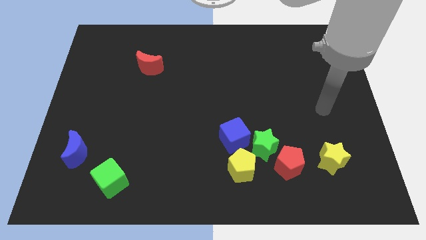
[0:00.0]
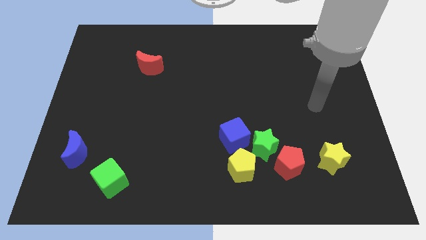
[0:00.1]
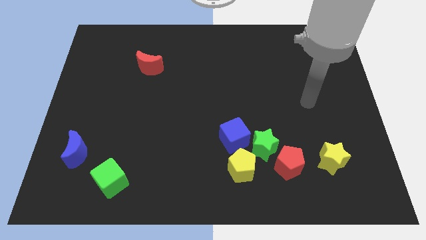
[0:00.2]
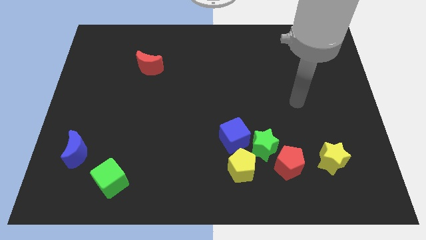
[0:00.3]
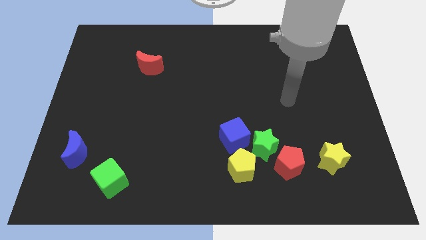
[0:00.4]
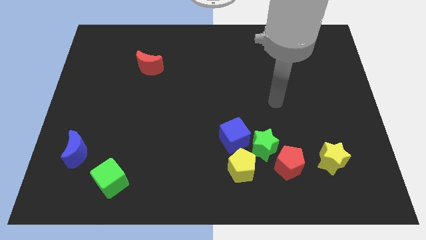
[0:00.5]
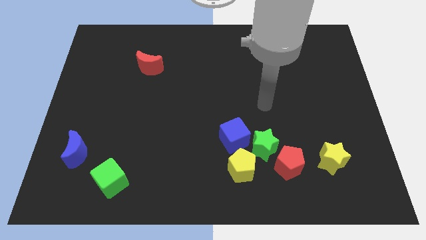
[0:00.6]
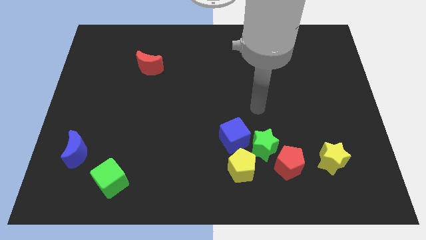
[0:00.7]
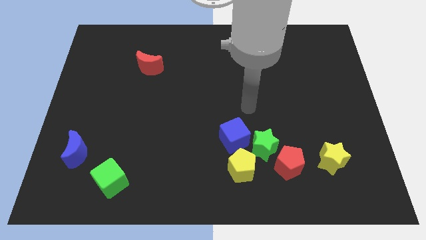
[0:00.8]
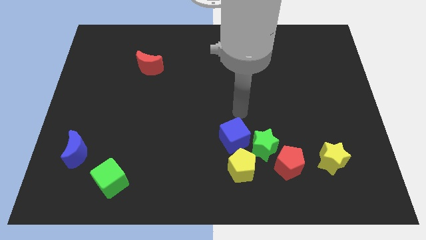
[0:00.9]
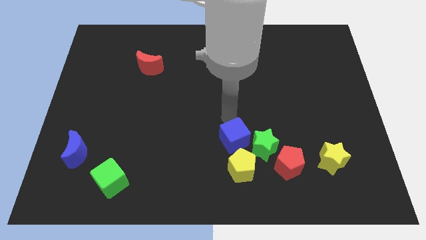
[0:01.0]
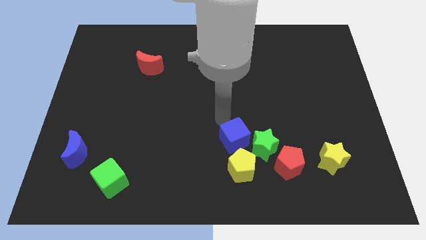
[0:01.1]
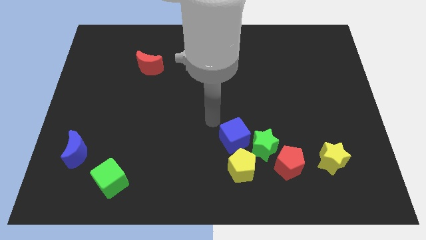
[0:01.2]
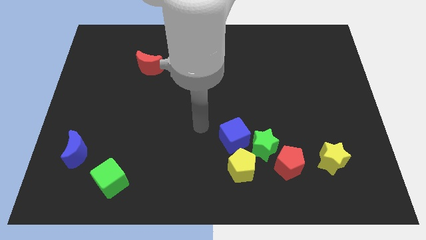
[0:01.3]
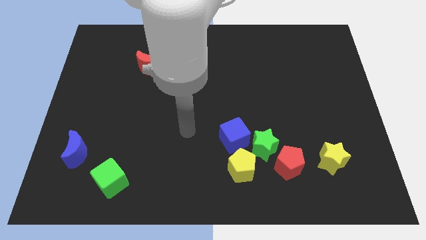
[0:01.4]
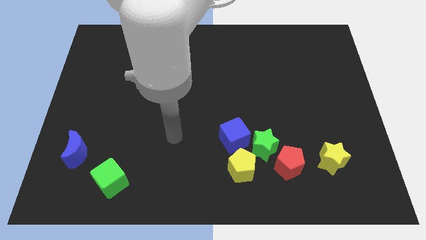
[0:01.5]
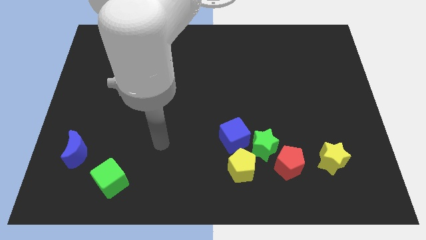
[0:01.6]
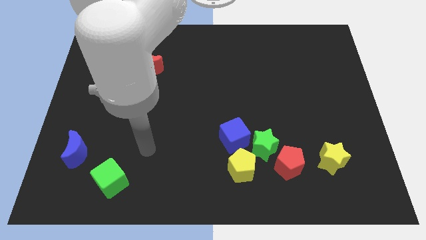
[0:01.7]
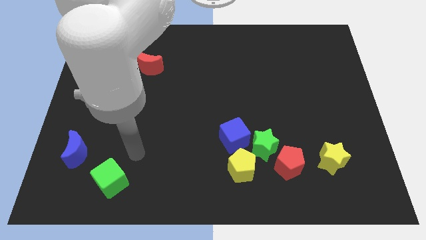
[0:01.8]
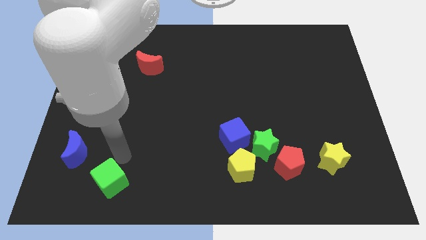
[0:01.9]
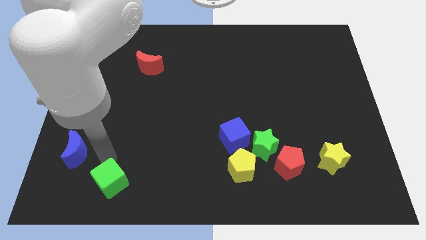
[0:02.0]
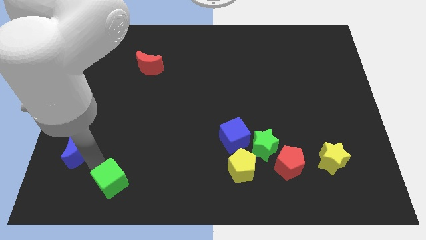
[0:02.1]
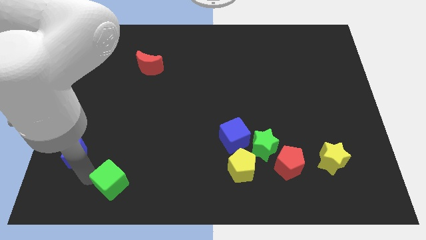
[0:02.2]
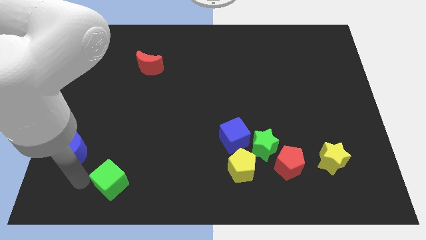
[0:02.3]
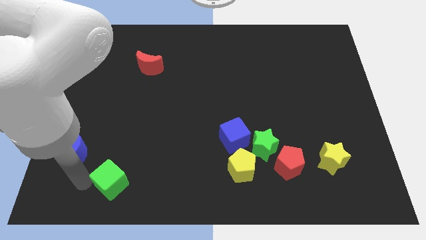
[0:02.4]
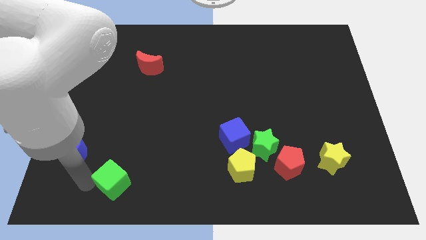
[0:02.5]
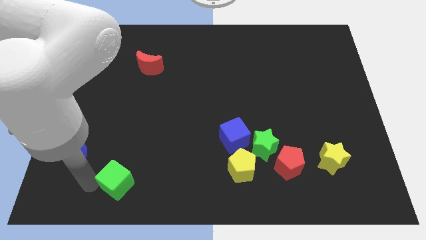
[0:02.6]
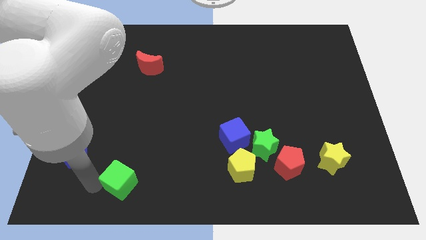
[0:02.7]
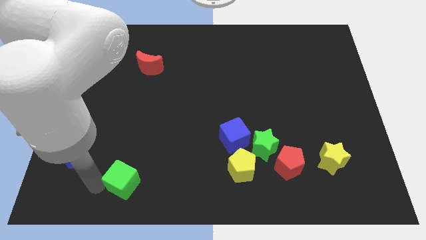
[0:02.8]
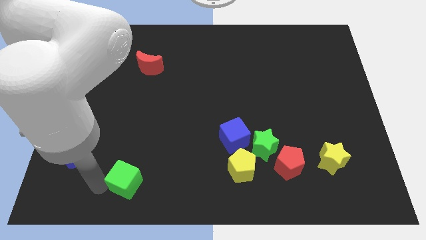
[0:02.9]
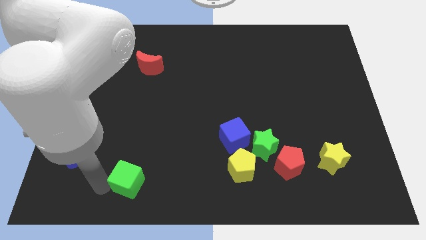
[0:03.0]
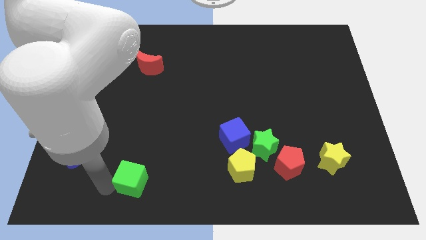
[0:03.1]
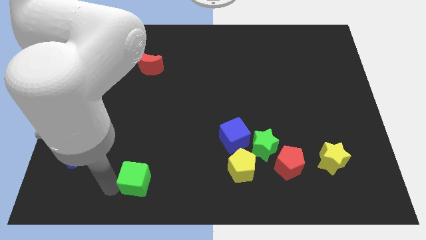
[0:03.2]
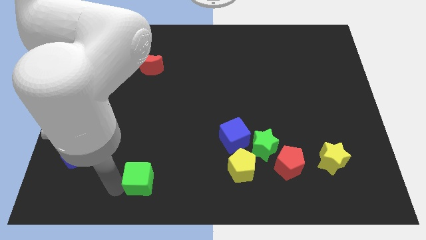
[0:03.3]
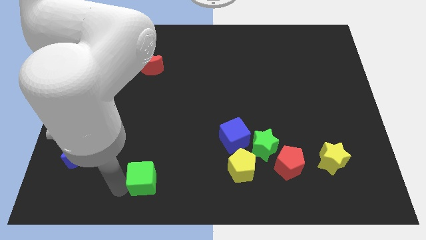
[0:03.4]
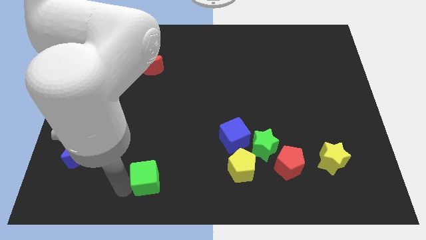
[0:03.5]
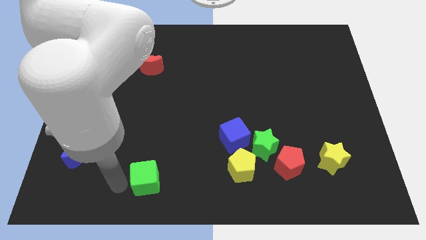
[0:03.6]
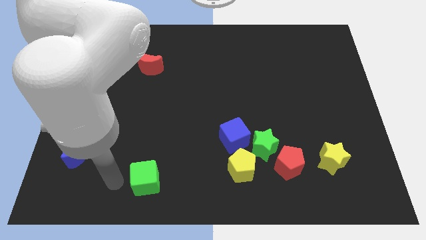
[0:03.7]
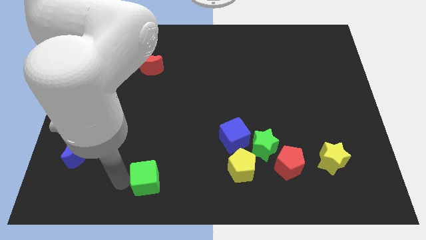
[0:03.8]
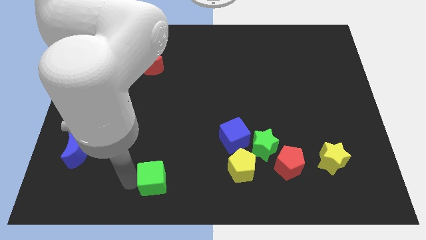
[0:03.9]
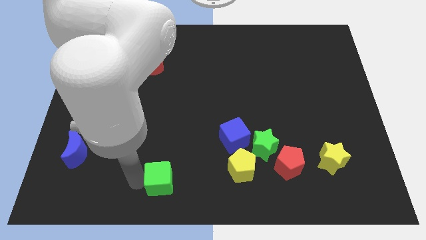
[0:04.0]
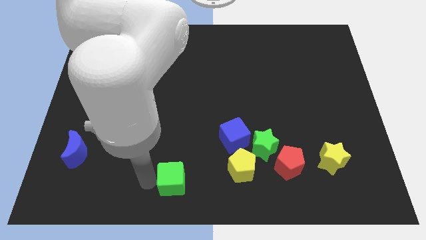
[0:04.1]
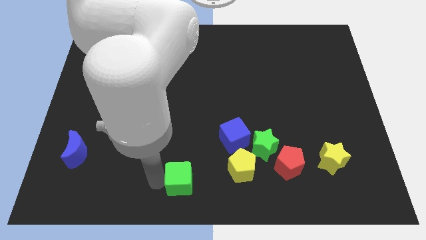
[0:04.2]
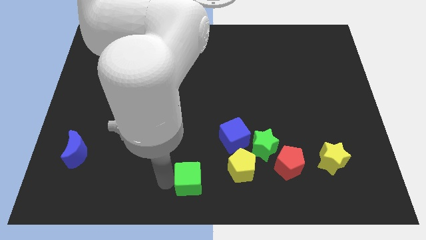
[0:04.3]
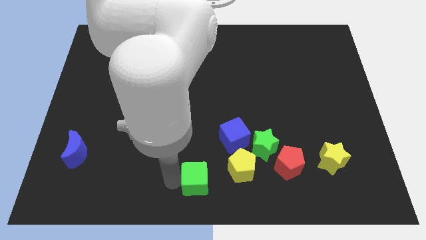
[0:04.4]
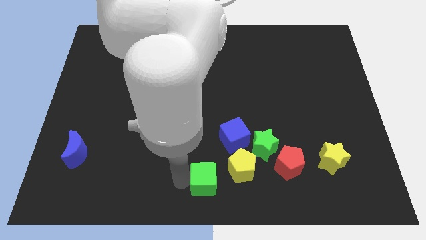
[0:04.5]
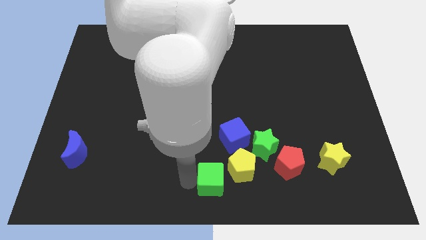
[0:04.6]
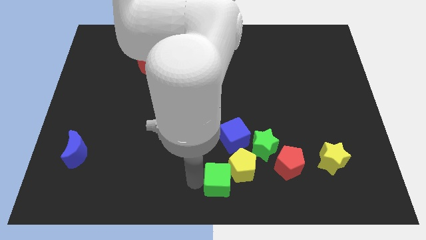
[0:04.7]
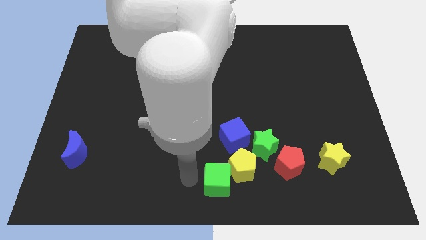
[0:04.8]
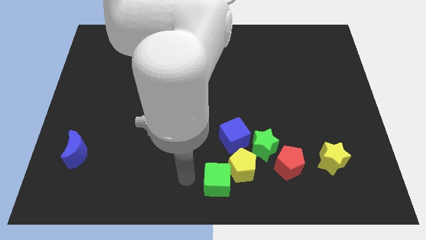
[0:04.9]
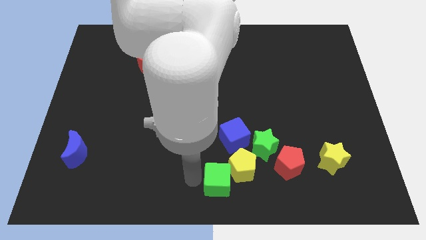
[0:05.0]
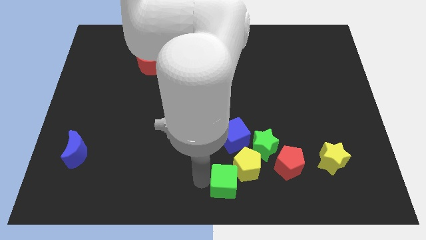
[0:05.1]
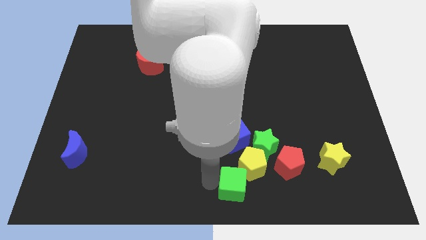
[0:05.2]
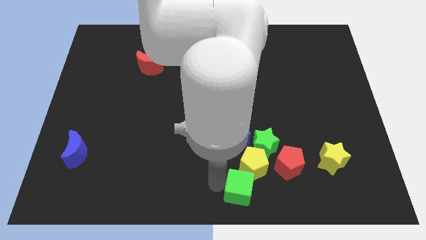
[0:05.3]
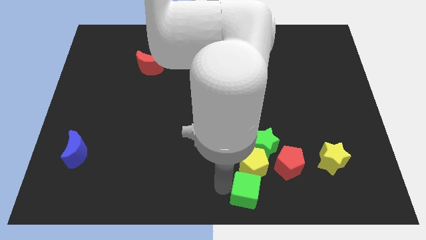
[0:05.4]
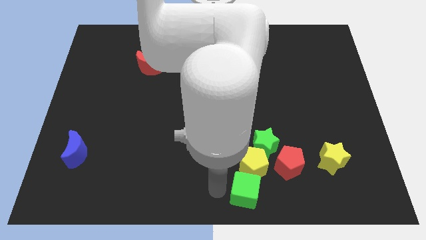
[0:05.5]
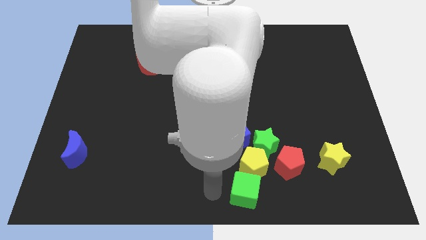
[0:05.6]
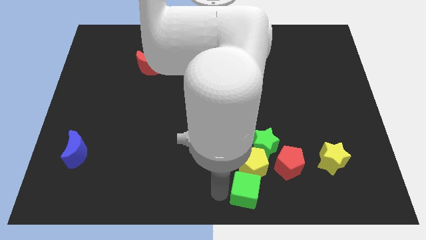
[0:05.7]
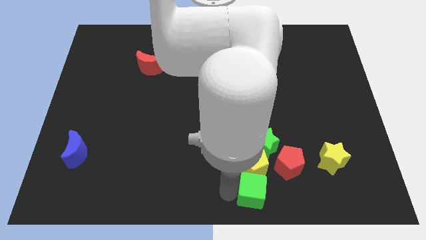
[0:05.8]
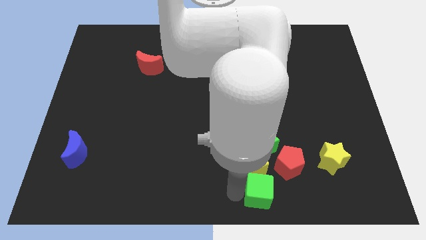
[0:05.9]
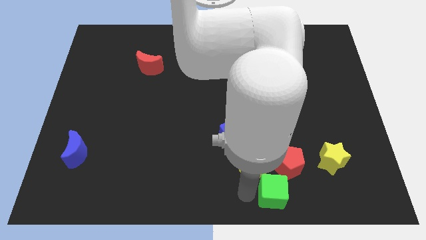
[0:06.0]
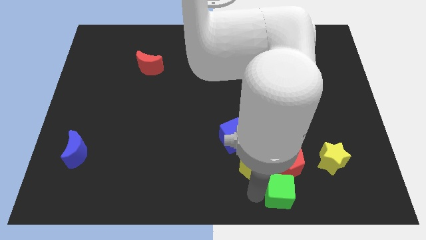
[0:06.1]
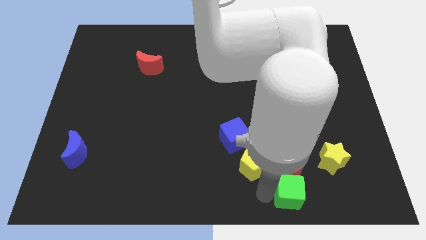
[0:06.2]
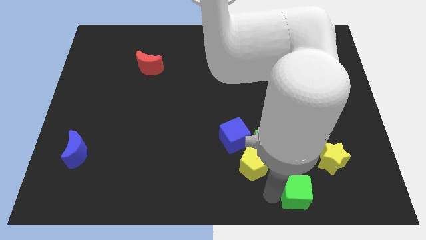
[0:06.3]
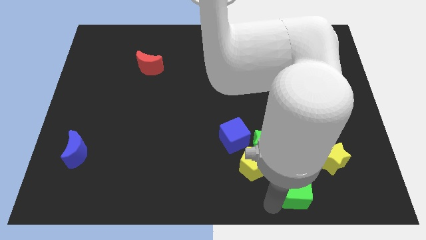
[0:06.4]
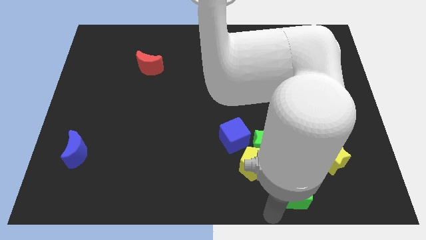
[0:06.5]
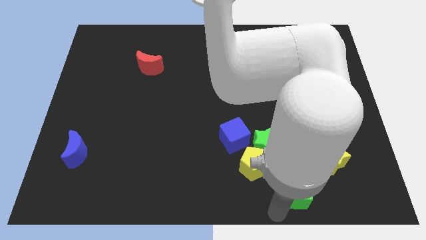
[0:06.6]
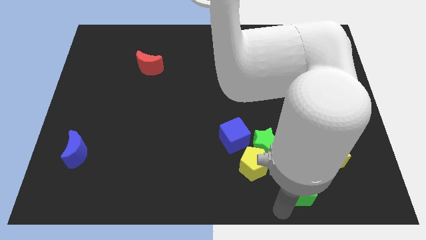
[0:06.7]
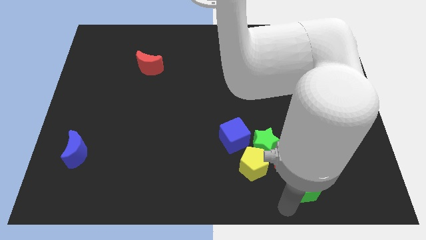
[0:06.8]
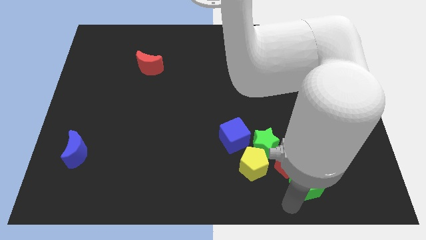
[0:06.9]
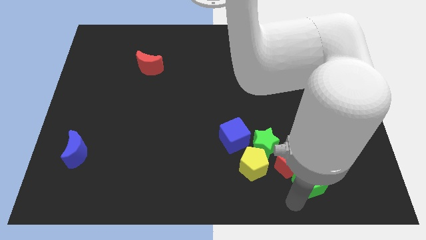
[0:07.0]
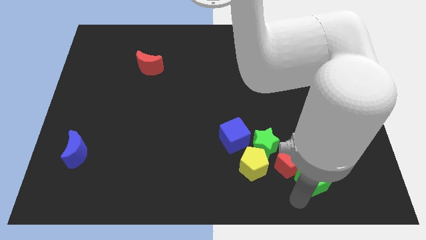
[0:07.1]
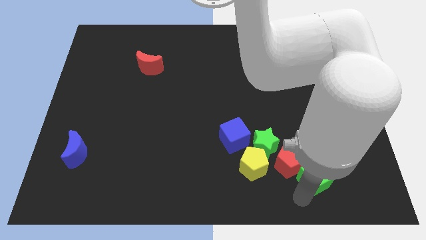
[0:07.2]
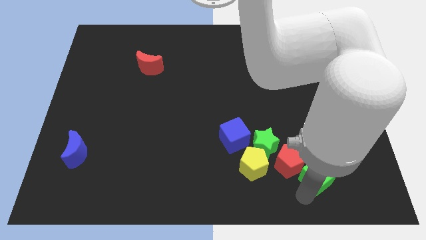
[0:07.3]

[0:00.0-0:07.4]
put the green cube towards the yellow star
